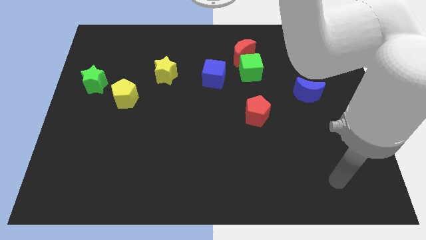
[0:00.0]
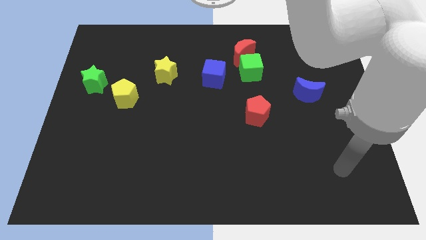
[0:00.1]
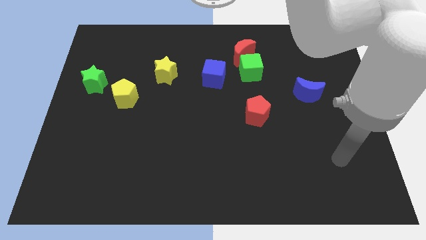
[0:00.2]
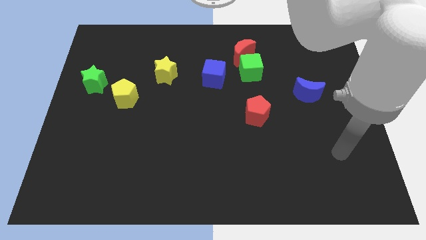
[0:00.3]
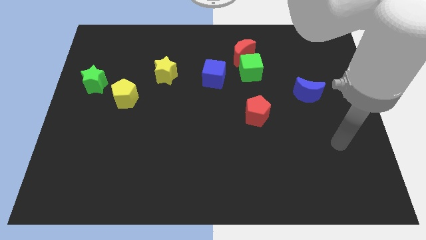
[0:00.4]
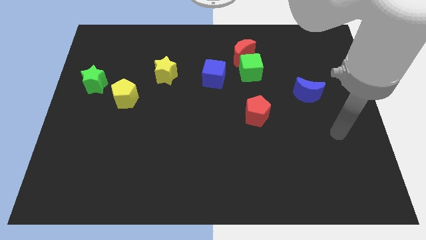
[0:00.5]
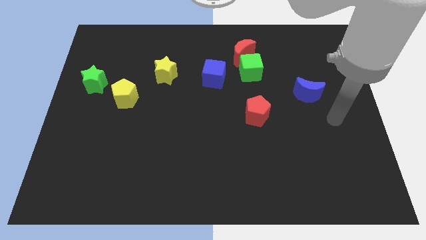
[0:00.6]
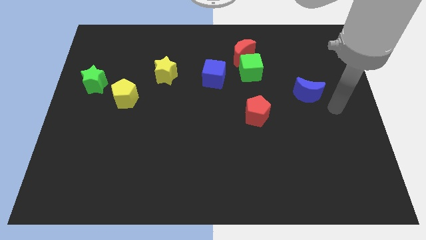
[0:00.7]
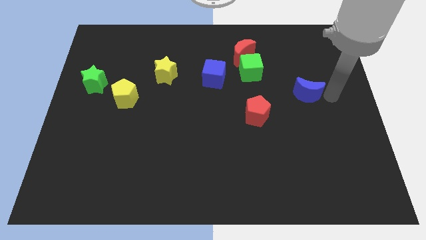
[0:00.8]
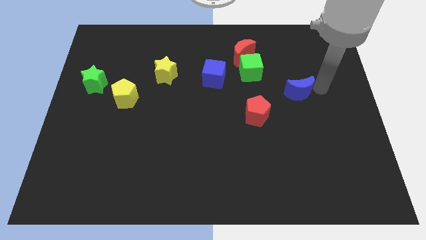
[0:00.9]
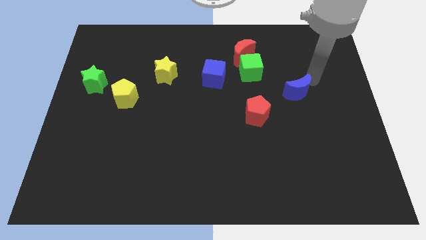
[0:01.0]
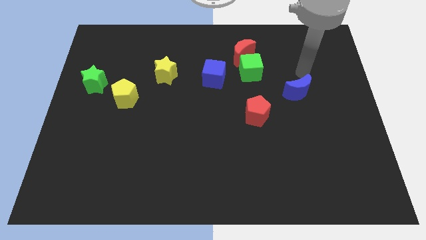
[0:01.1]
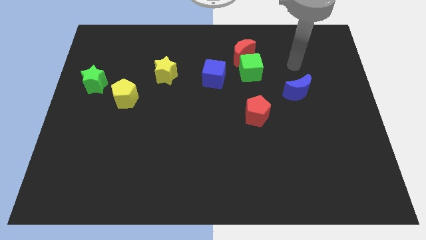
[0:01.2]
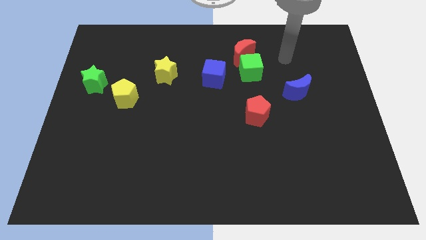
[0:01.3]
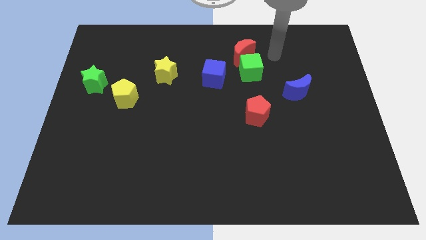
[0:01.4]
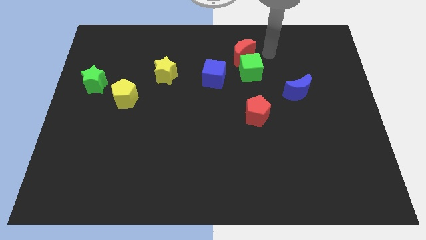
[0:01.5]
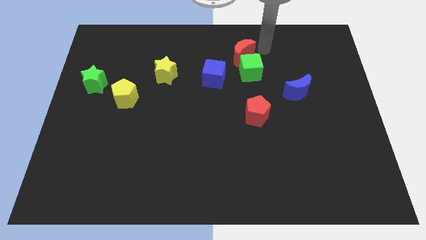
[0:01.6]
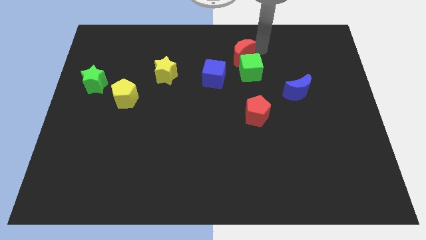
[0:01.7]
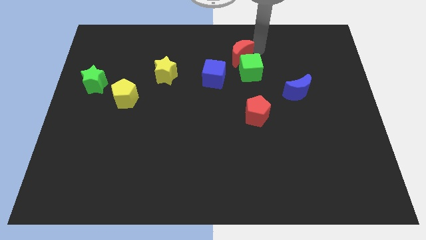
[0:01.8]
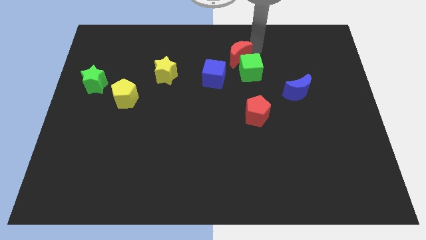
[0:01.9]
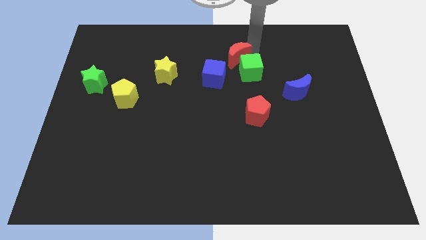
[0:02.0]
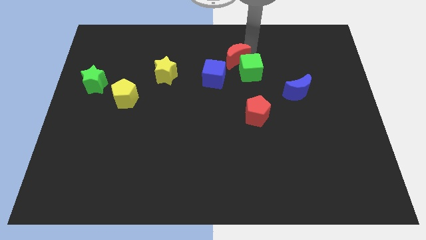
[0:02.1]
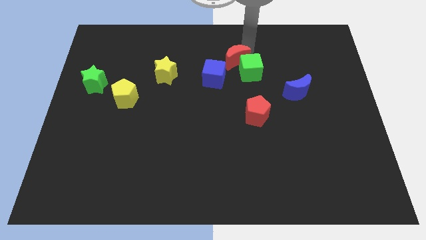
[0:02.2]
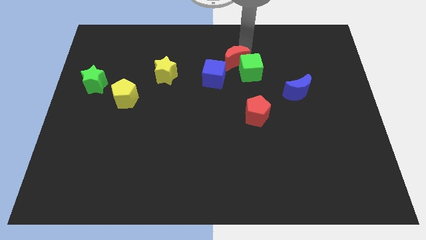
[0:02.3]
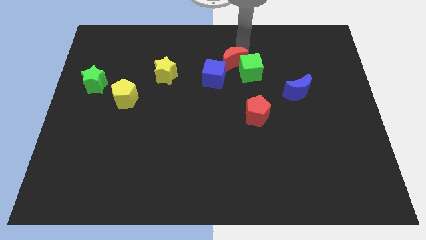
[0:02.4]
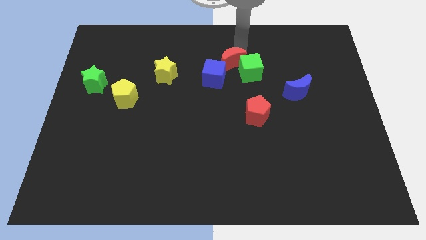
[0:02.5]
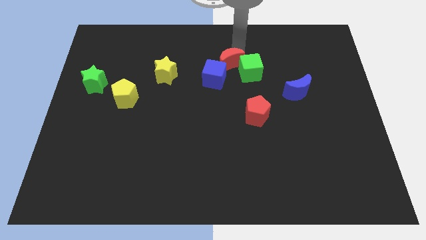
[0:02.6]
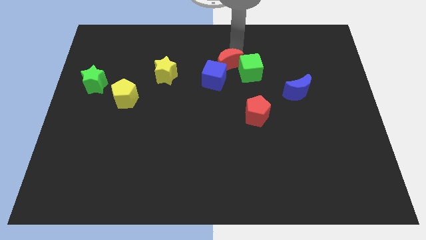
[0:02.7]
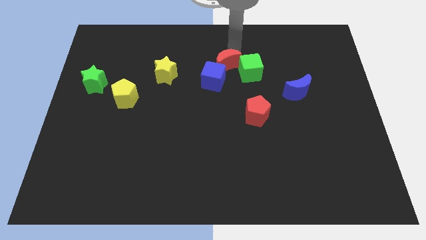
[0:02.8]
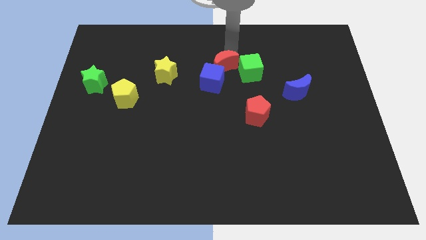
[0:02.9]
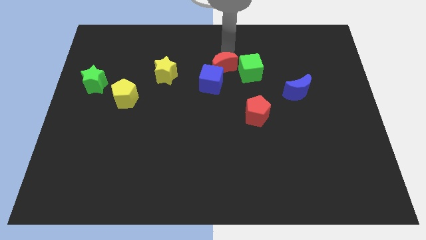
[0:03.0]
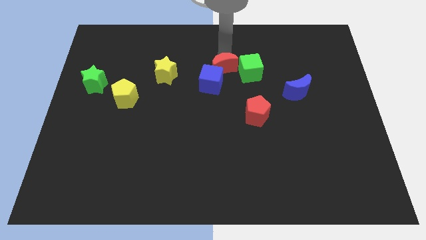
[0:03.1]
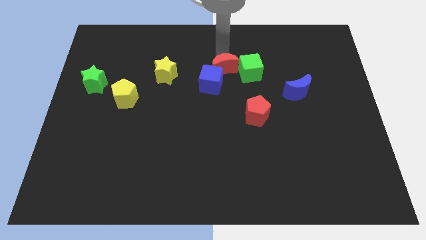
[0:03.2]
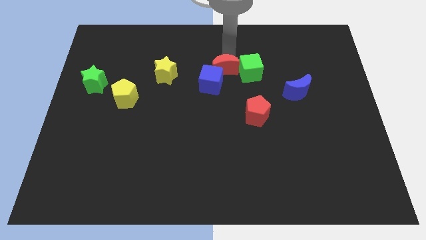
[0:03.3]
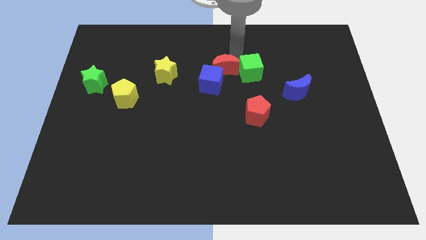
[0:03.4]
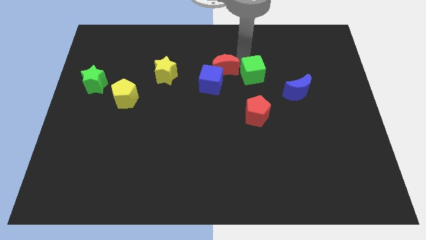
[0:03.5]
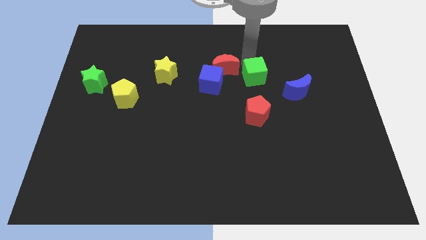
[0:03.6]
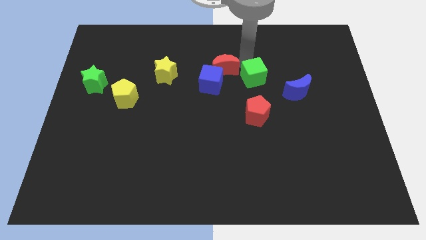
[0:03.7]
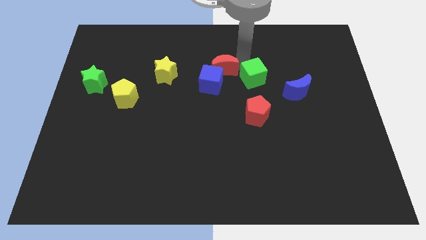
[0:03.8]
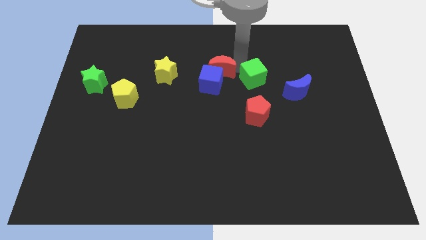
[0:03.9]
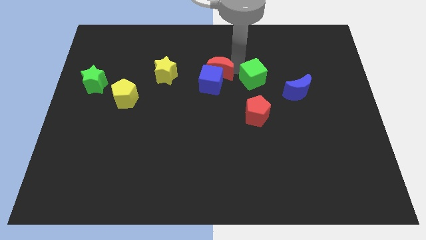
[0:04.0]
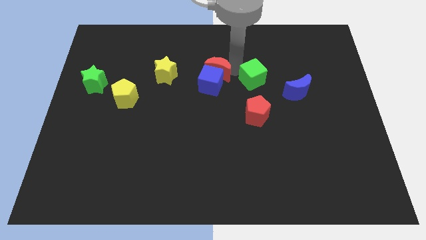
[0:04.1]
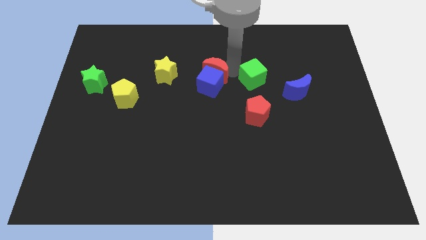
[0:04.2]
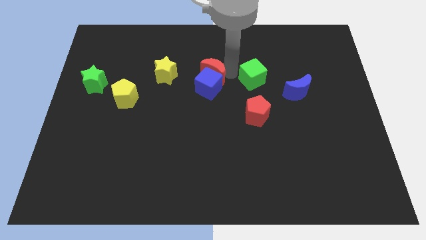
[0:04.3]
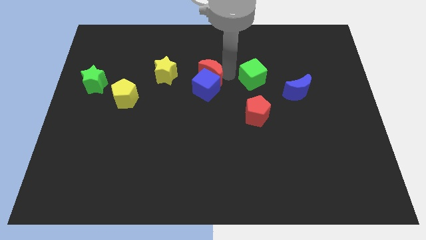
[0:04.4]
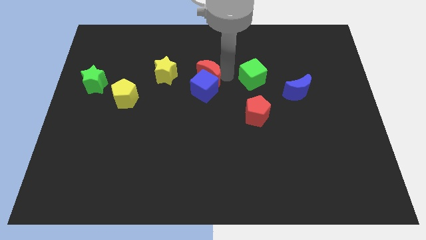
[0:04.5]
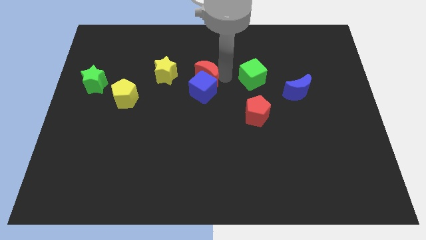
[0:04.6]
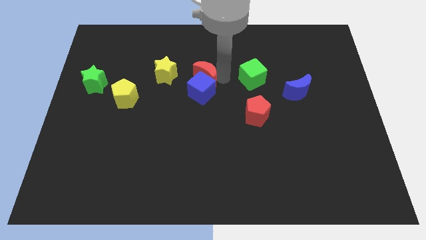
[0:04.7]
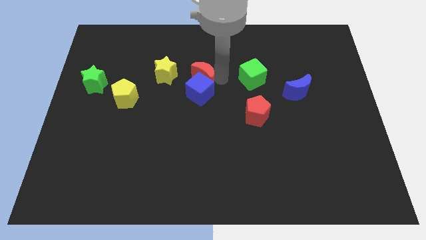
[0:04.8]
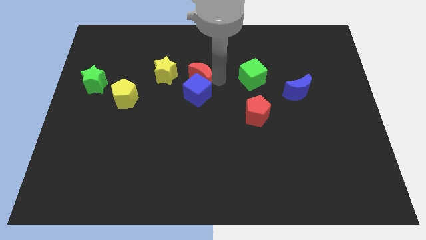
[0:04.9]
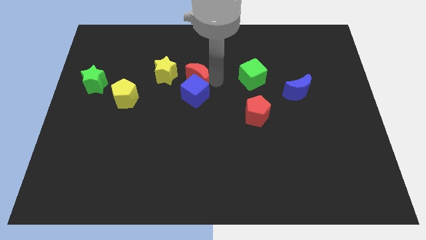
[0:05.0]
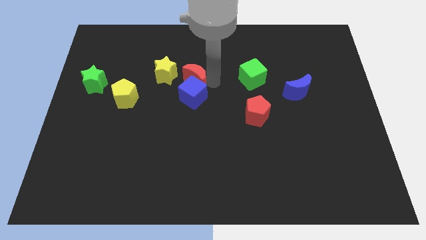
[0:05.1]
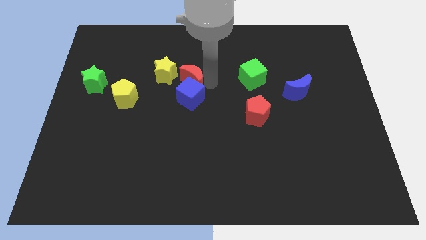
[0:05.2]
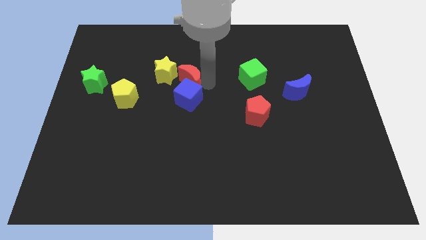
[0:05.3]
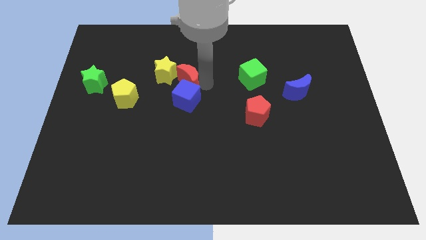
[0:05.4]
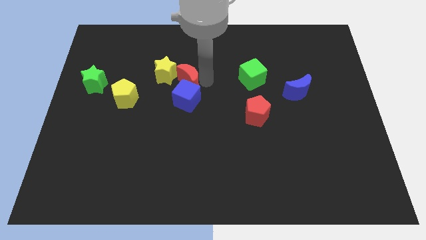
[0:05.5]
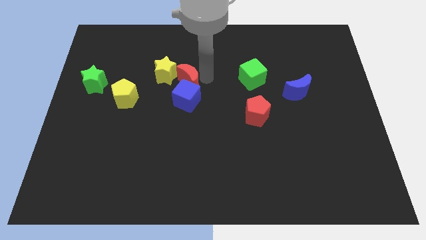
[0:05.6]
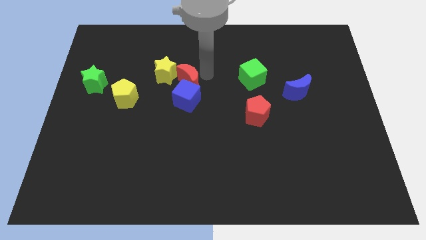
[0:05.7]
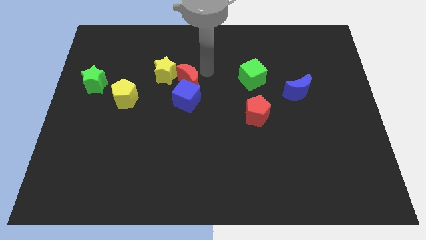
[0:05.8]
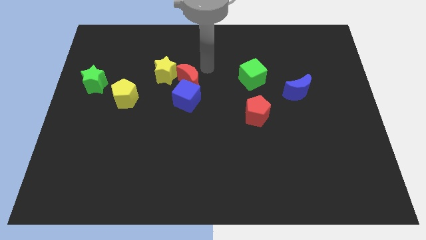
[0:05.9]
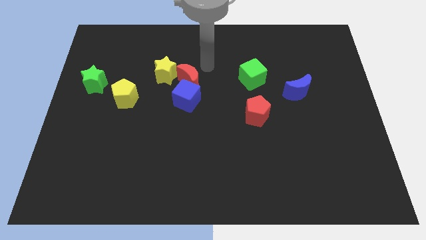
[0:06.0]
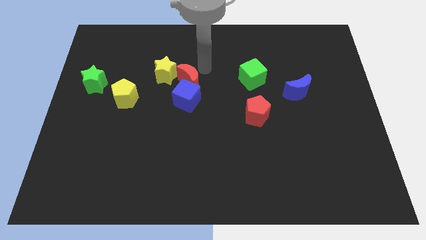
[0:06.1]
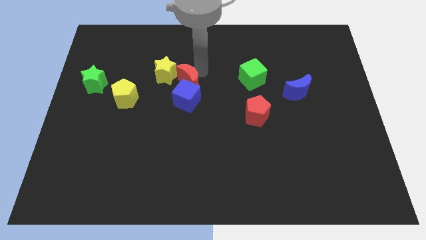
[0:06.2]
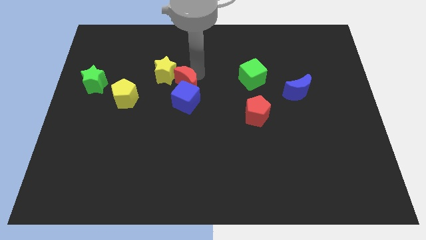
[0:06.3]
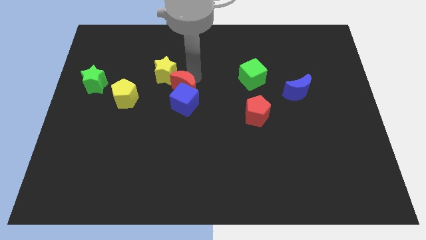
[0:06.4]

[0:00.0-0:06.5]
move the red moon right of the yellow pentagon

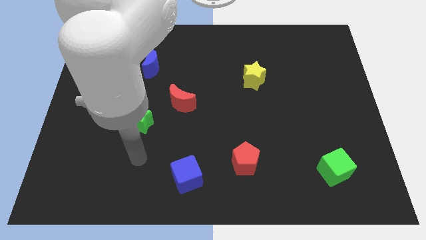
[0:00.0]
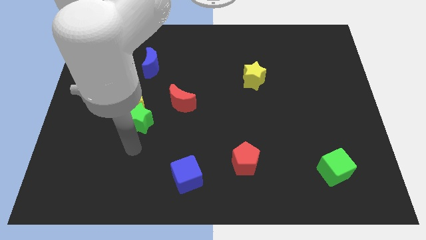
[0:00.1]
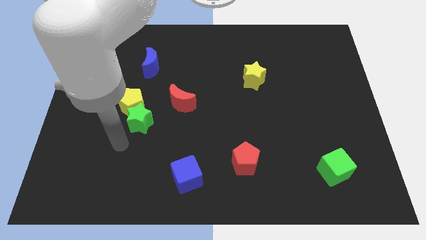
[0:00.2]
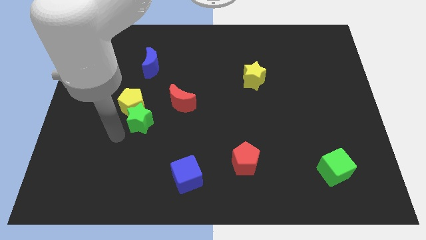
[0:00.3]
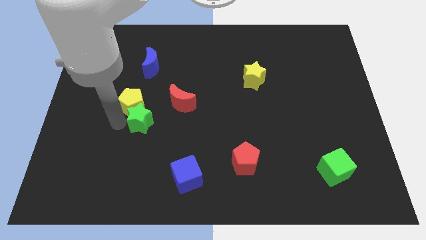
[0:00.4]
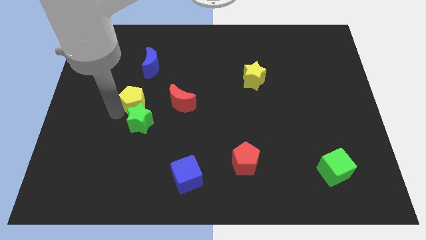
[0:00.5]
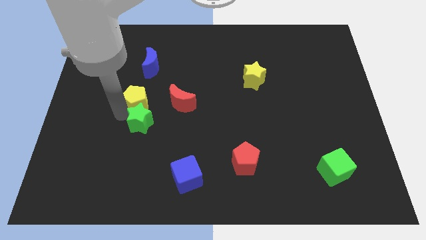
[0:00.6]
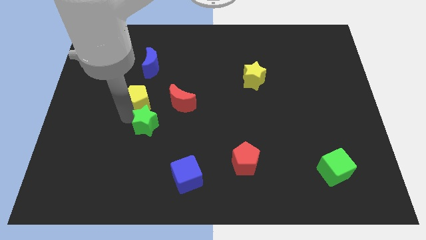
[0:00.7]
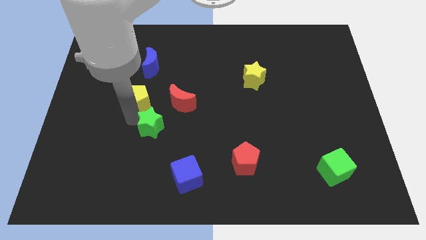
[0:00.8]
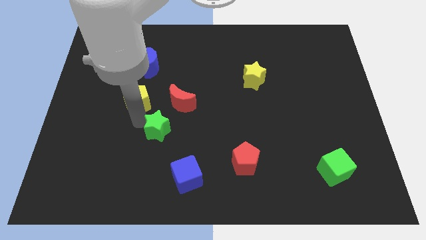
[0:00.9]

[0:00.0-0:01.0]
move the green star below the red moon

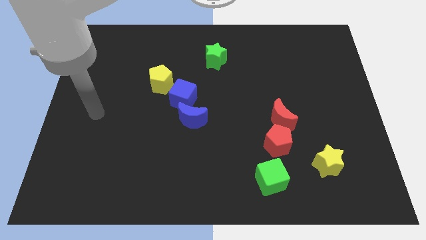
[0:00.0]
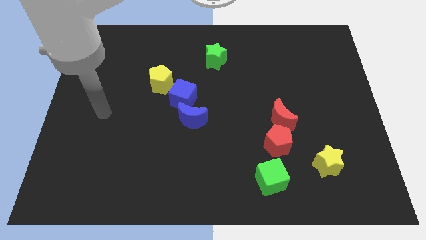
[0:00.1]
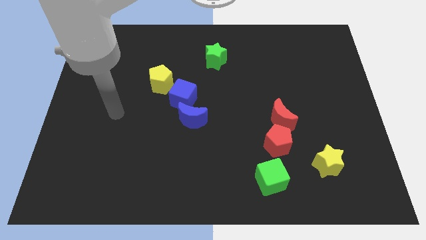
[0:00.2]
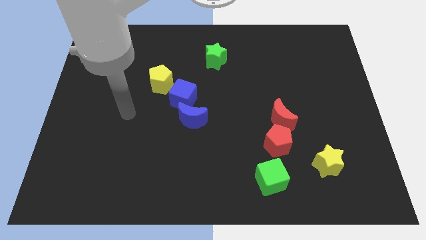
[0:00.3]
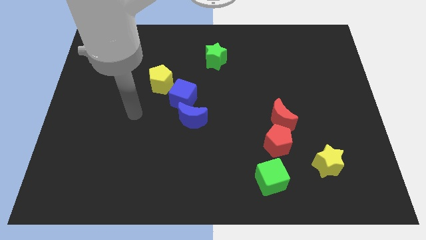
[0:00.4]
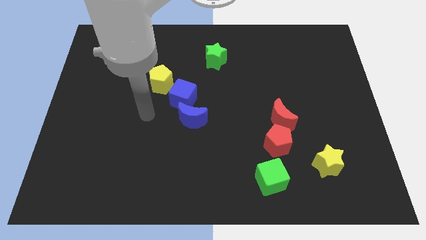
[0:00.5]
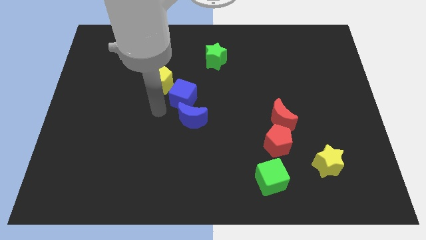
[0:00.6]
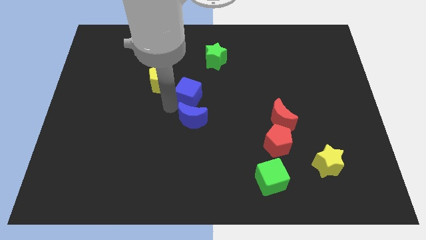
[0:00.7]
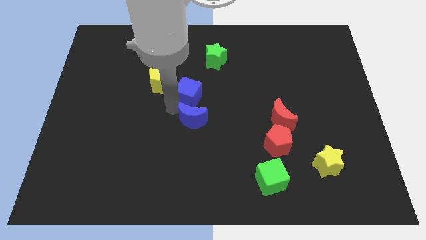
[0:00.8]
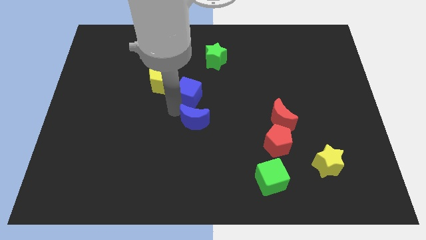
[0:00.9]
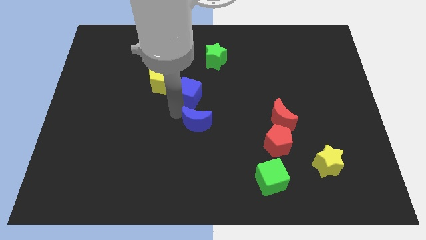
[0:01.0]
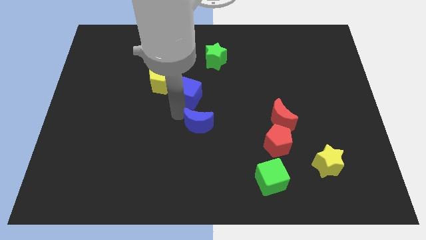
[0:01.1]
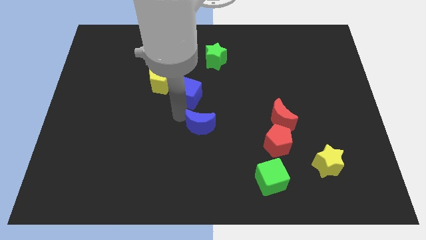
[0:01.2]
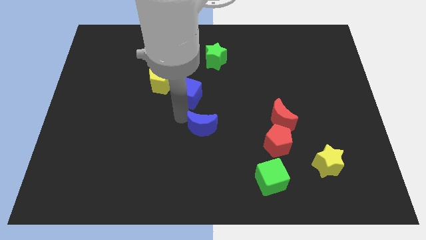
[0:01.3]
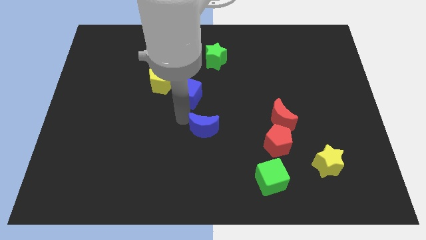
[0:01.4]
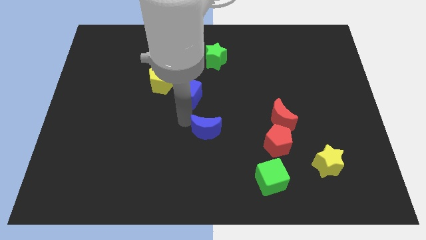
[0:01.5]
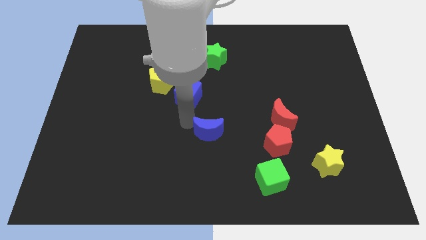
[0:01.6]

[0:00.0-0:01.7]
push the blue moon left of the red pentagon
